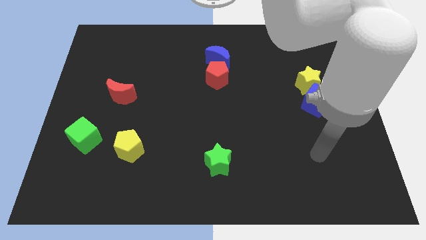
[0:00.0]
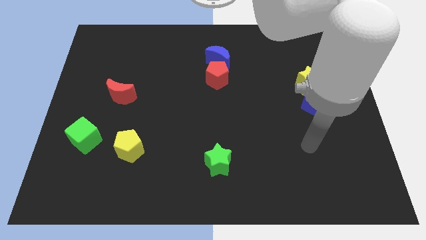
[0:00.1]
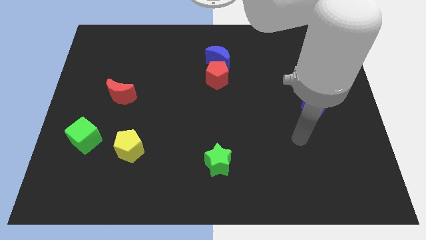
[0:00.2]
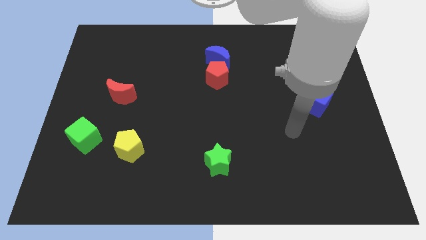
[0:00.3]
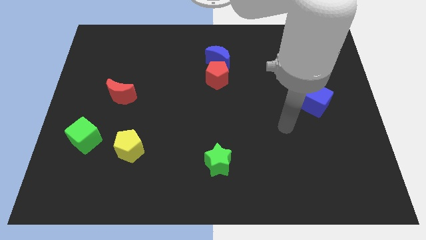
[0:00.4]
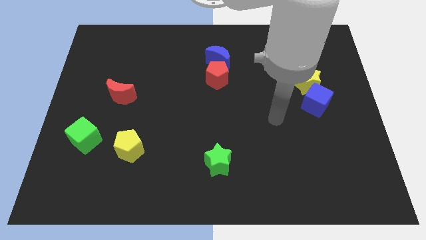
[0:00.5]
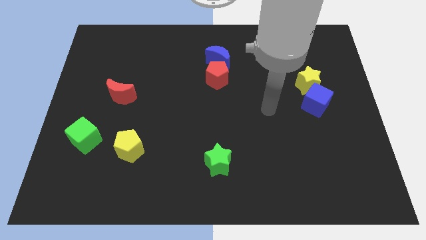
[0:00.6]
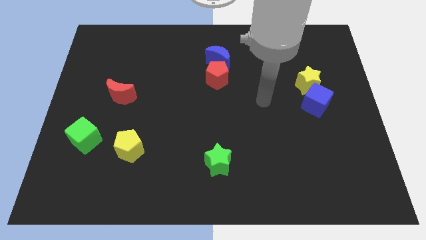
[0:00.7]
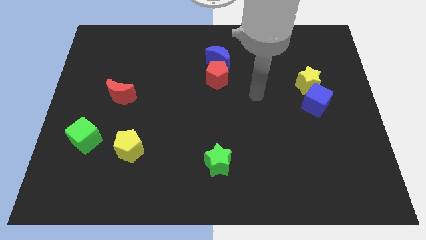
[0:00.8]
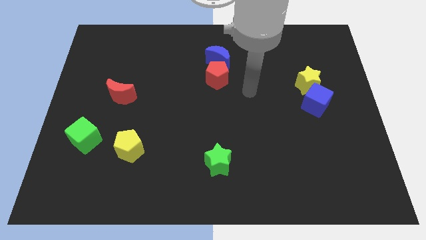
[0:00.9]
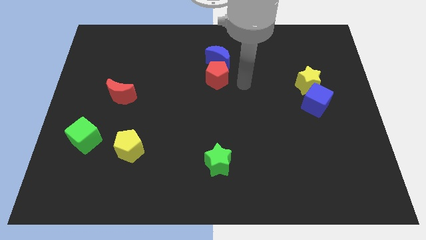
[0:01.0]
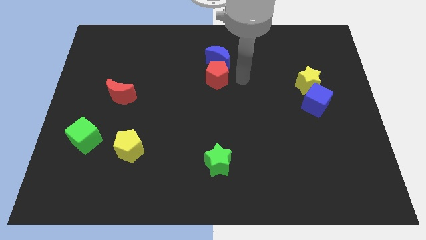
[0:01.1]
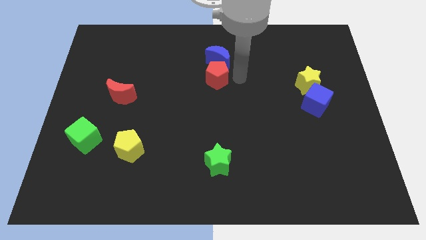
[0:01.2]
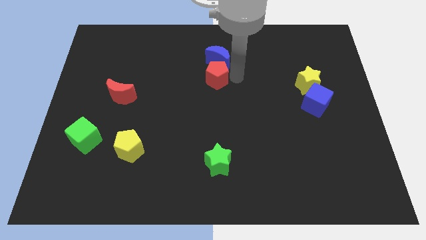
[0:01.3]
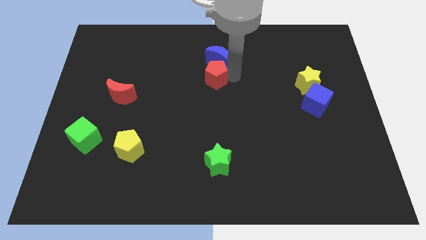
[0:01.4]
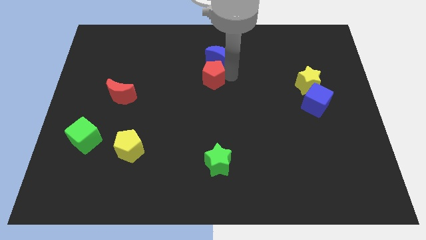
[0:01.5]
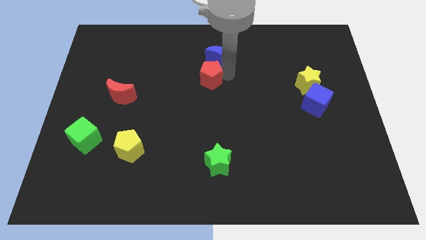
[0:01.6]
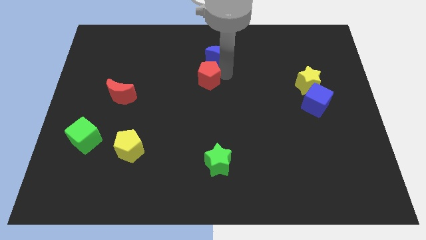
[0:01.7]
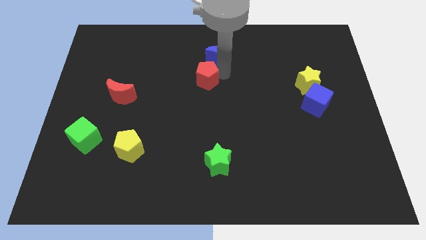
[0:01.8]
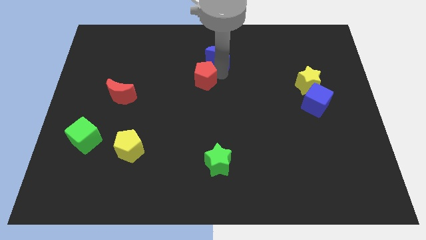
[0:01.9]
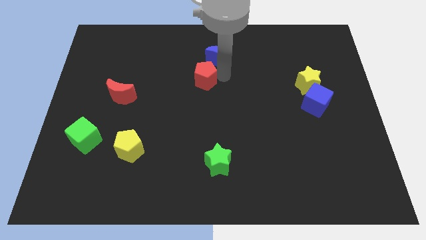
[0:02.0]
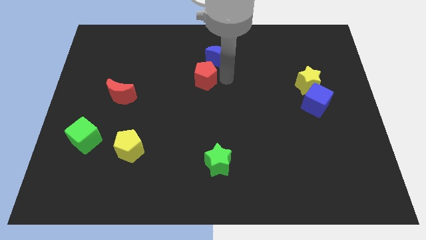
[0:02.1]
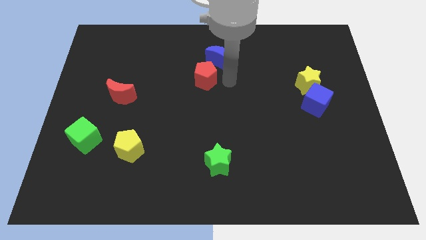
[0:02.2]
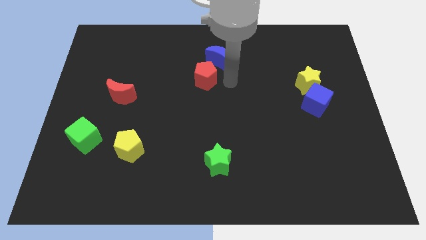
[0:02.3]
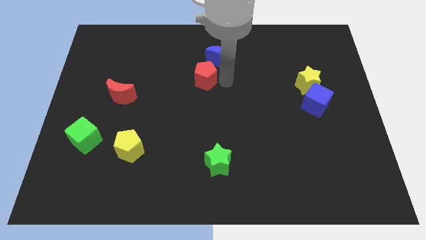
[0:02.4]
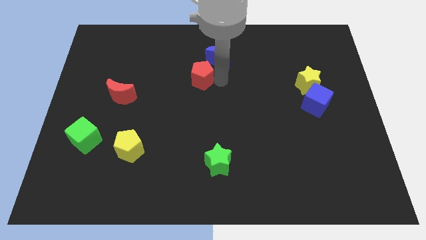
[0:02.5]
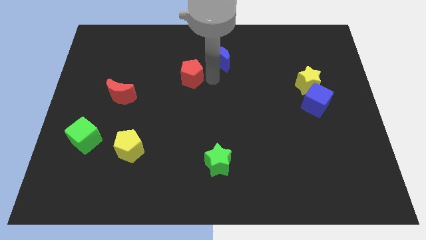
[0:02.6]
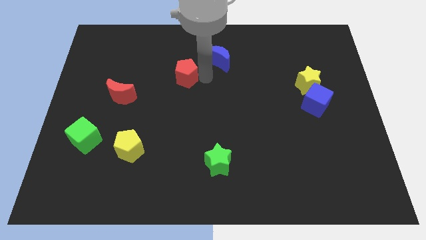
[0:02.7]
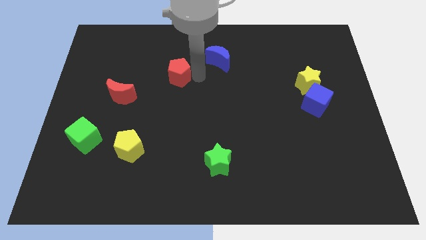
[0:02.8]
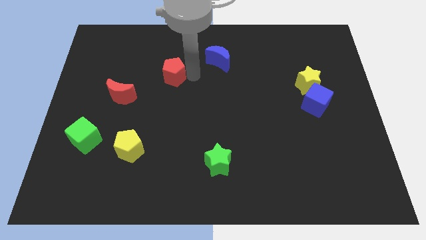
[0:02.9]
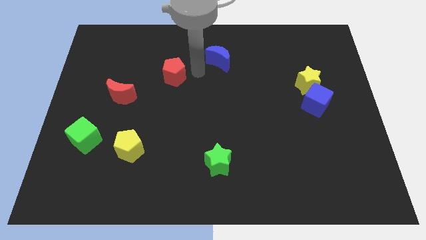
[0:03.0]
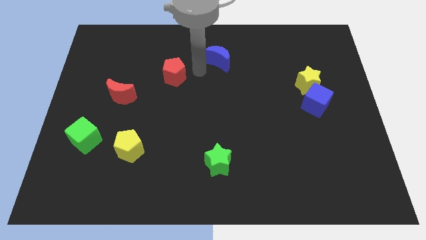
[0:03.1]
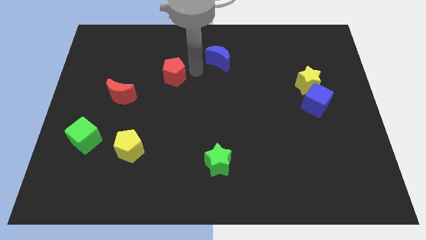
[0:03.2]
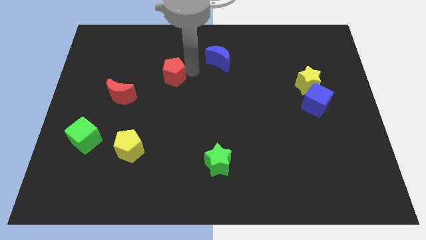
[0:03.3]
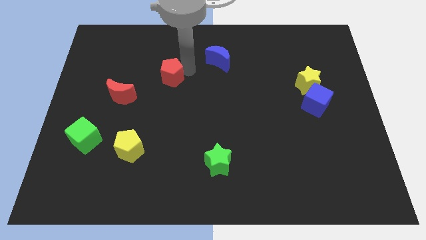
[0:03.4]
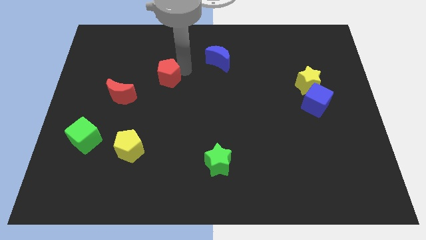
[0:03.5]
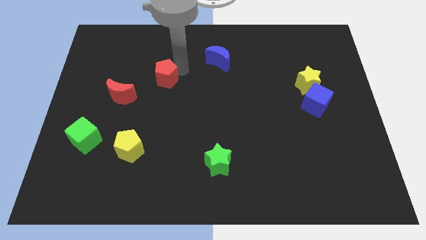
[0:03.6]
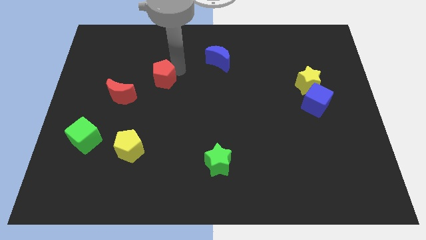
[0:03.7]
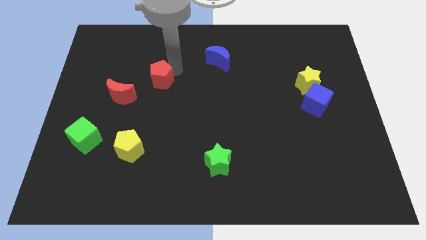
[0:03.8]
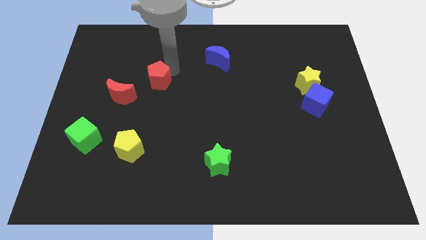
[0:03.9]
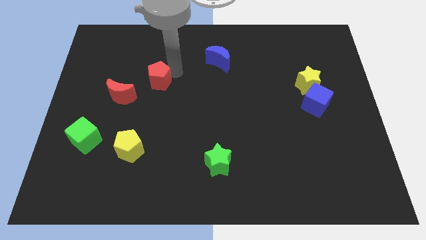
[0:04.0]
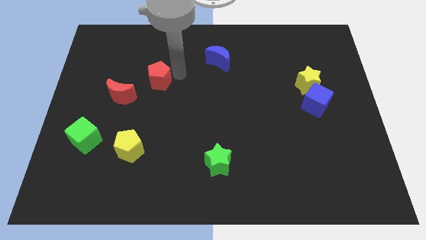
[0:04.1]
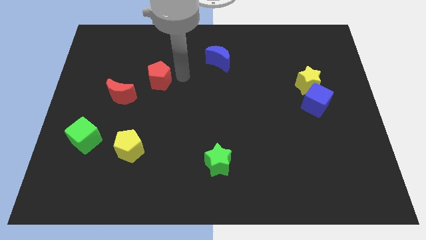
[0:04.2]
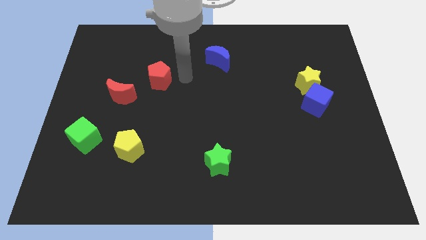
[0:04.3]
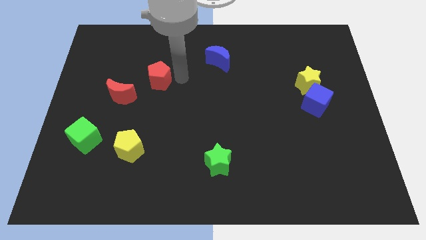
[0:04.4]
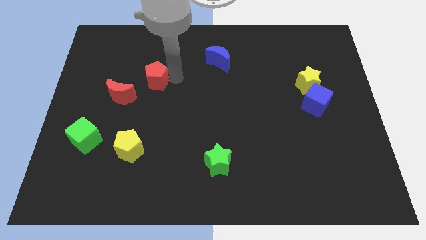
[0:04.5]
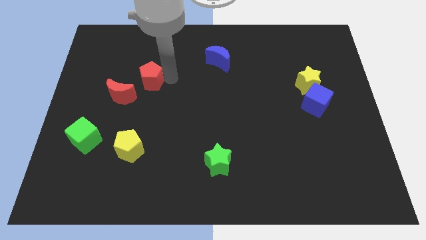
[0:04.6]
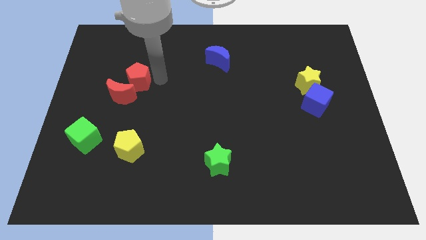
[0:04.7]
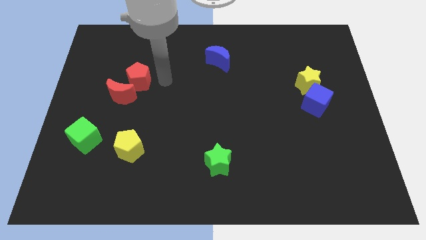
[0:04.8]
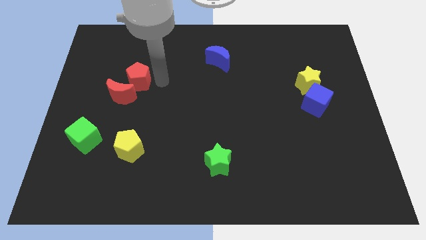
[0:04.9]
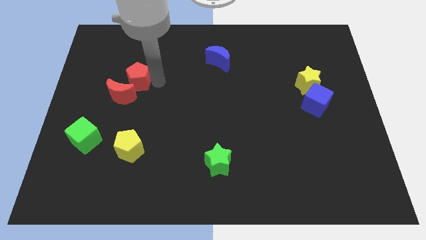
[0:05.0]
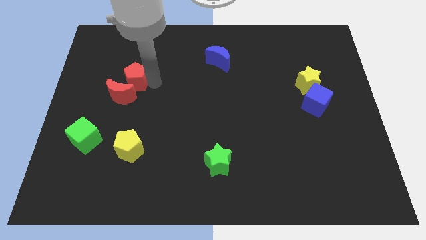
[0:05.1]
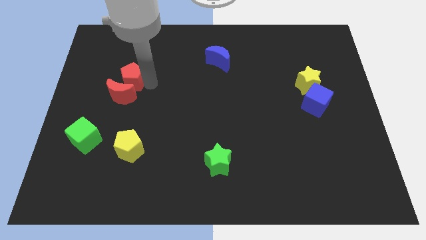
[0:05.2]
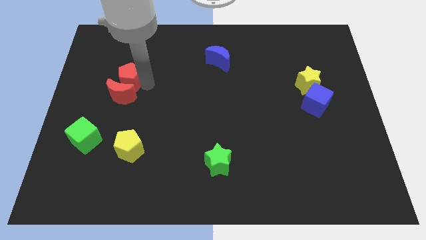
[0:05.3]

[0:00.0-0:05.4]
push the red pentagon to the top left side of the red moon

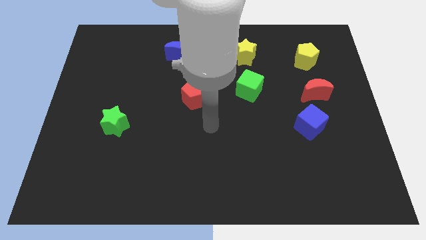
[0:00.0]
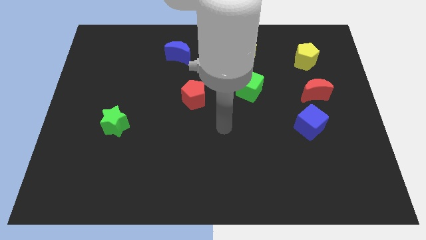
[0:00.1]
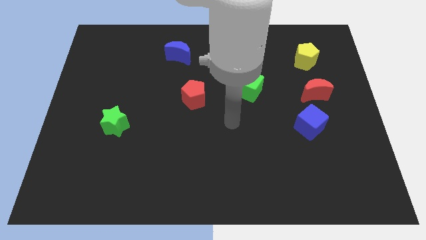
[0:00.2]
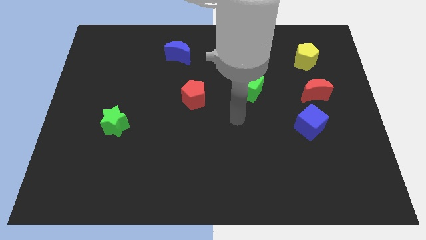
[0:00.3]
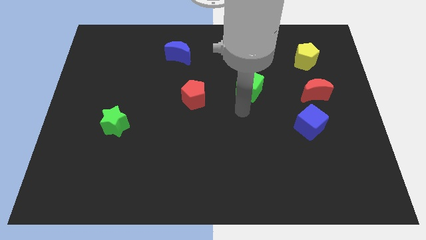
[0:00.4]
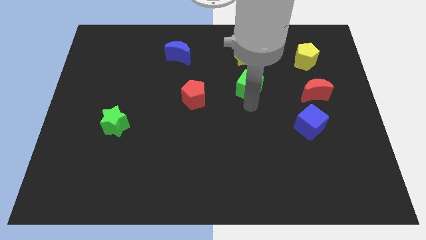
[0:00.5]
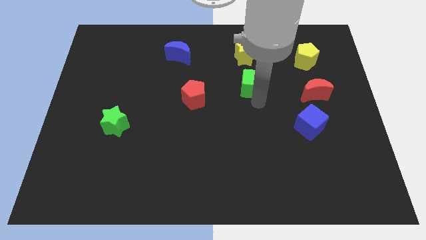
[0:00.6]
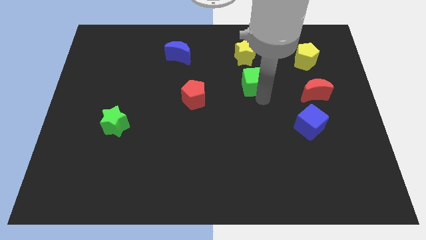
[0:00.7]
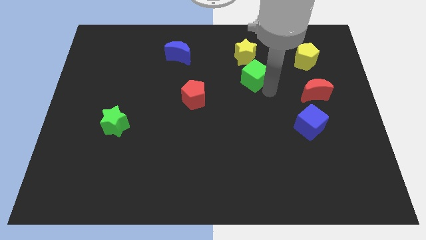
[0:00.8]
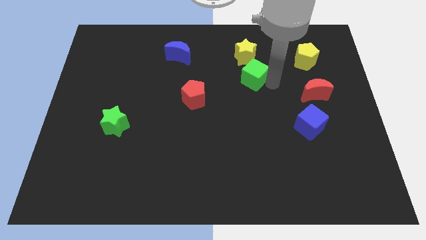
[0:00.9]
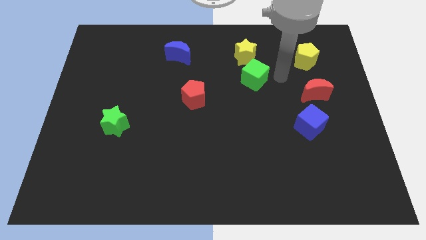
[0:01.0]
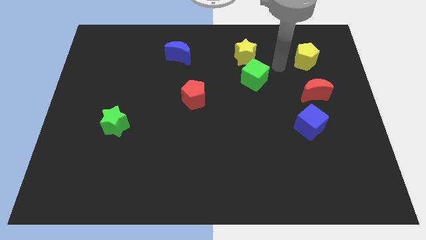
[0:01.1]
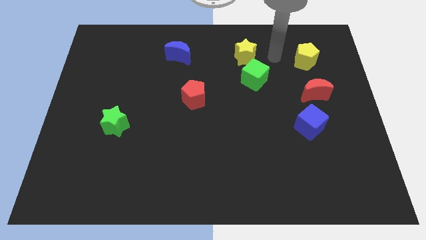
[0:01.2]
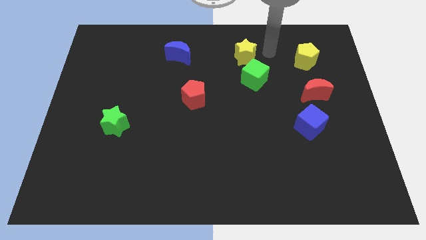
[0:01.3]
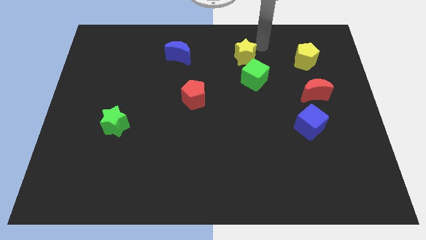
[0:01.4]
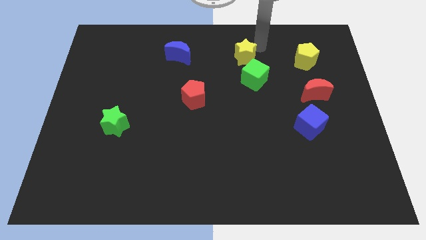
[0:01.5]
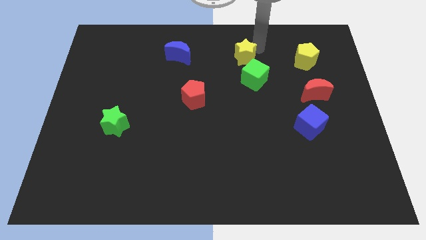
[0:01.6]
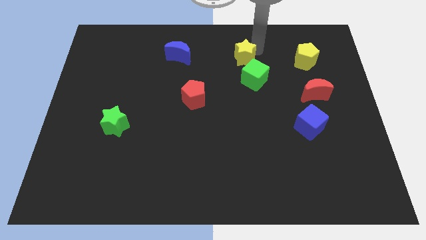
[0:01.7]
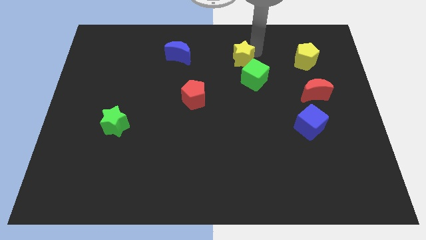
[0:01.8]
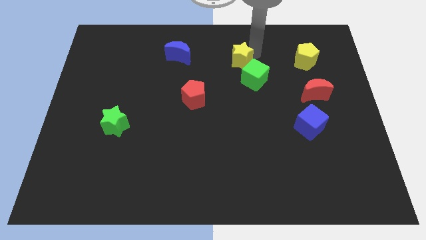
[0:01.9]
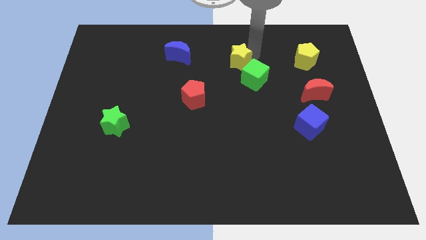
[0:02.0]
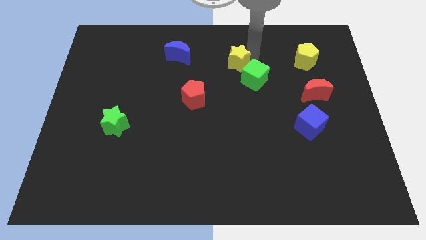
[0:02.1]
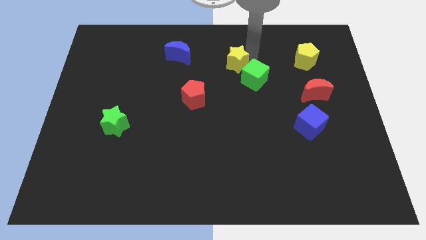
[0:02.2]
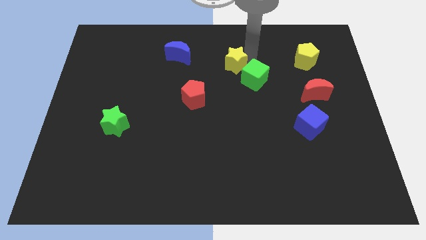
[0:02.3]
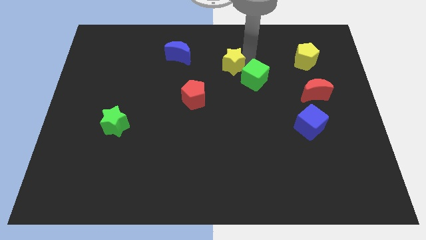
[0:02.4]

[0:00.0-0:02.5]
put the yellow star just left of the green cube

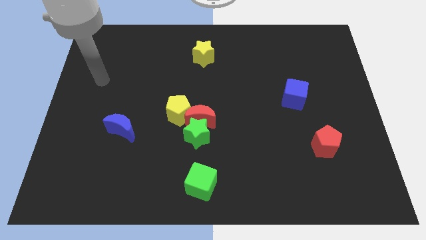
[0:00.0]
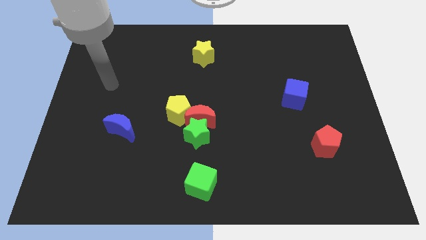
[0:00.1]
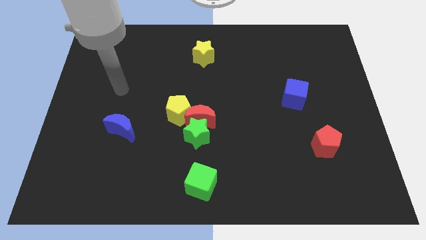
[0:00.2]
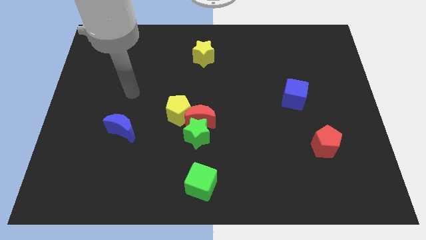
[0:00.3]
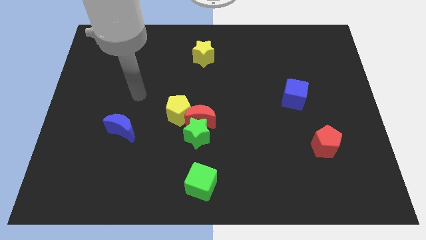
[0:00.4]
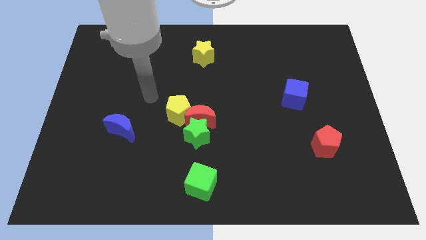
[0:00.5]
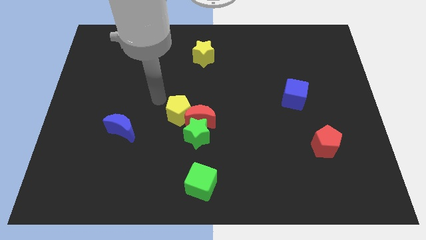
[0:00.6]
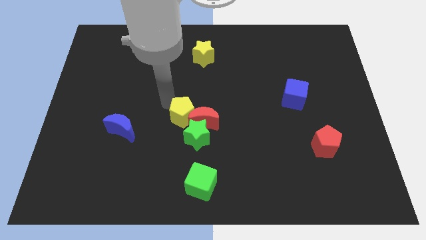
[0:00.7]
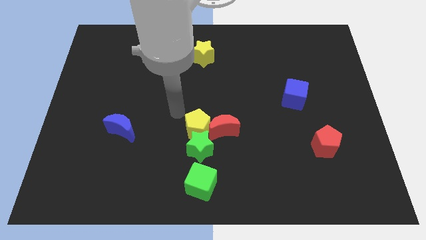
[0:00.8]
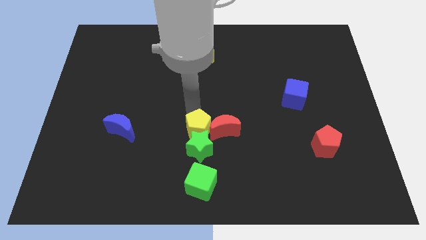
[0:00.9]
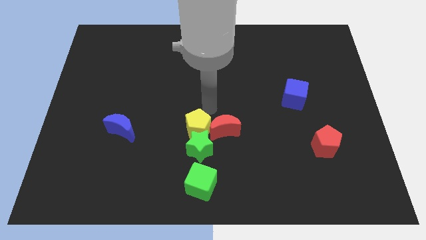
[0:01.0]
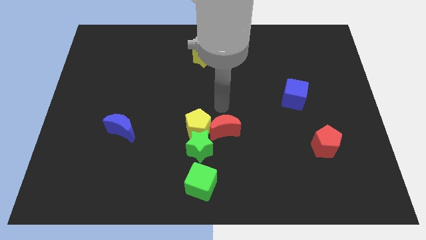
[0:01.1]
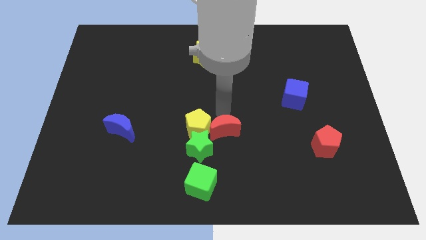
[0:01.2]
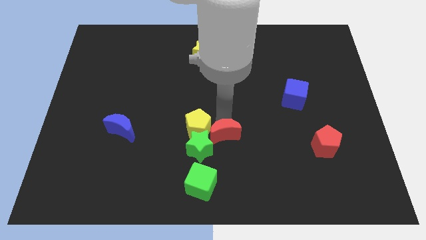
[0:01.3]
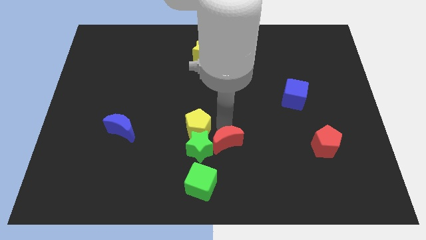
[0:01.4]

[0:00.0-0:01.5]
move the red moon to the top right side of the green cube
